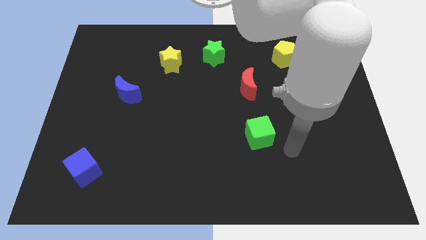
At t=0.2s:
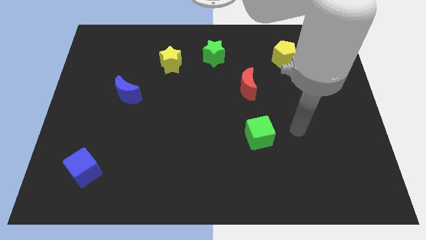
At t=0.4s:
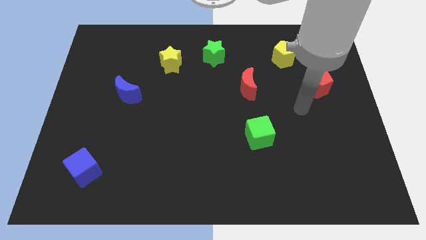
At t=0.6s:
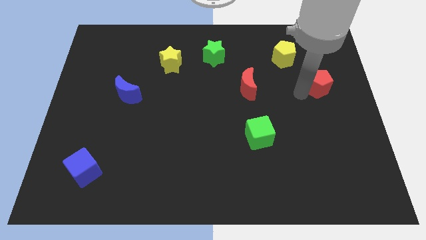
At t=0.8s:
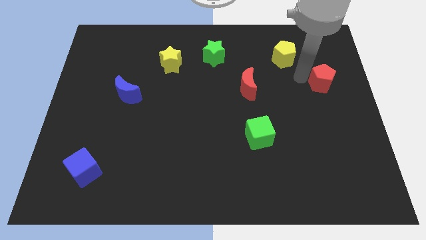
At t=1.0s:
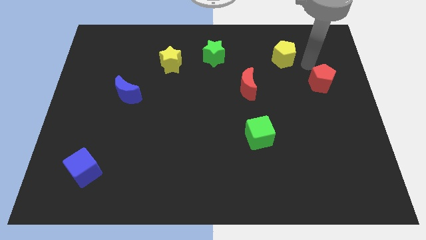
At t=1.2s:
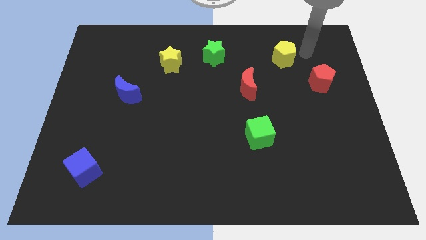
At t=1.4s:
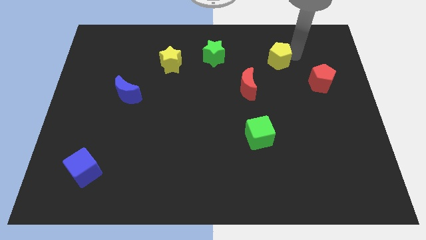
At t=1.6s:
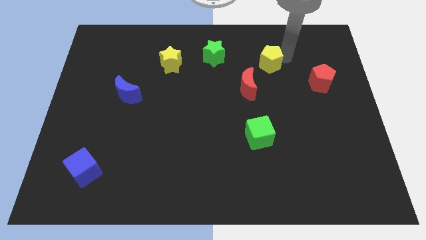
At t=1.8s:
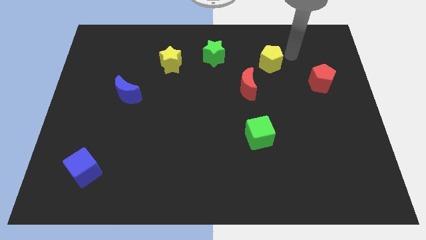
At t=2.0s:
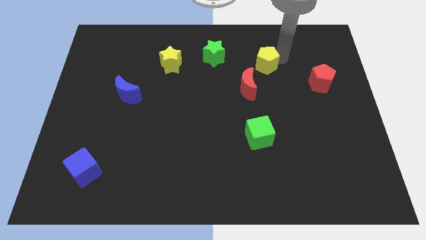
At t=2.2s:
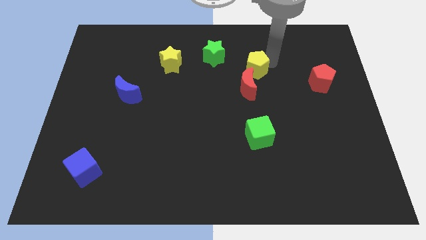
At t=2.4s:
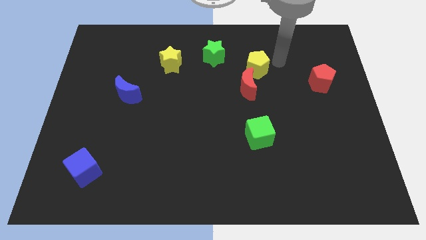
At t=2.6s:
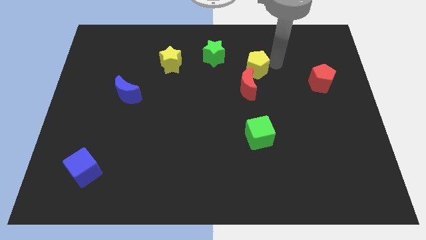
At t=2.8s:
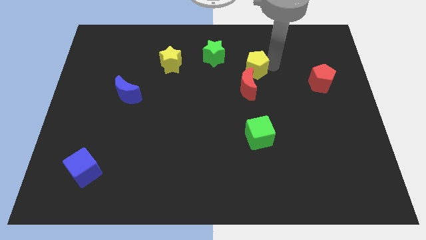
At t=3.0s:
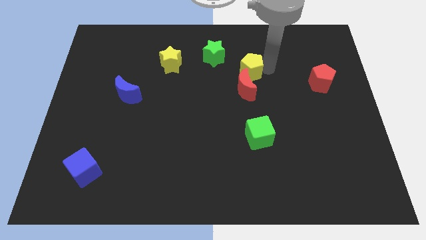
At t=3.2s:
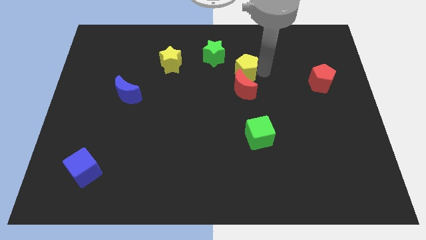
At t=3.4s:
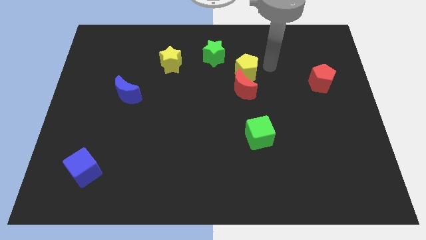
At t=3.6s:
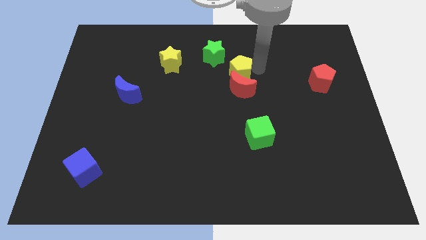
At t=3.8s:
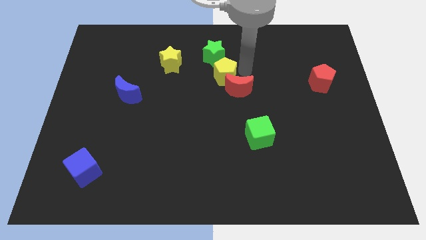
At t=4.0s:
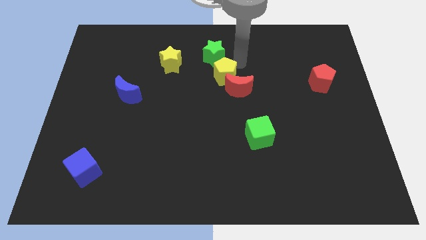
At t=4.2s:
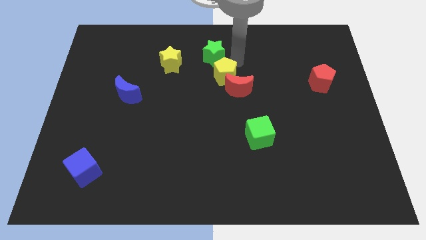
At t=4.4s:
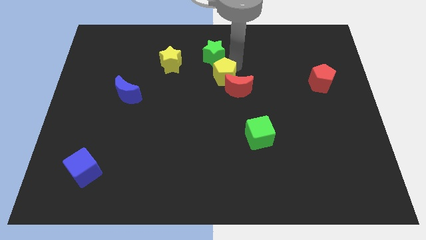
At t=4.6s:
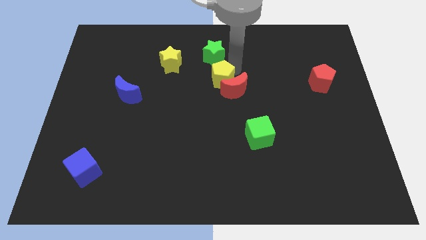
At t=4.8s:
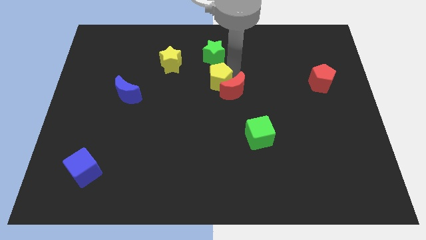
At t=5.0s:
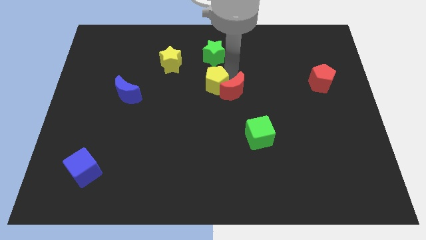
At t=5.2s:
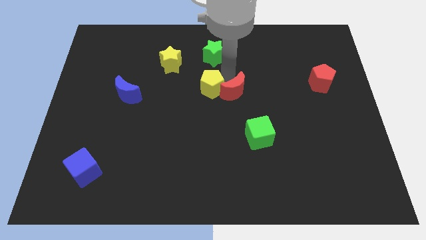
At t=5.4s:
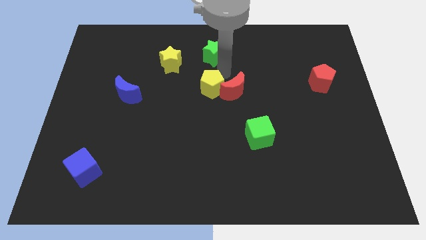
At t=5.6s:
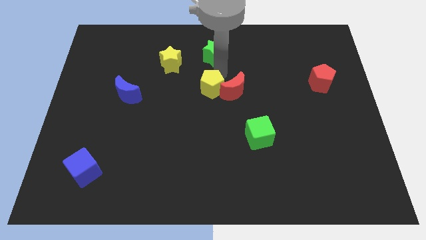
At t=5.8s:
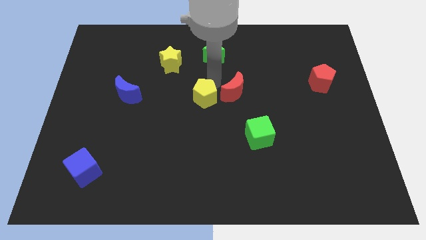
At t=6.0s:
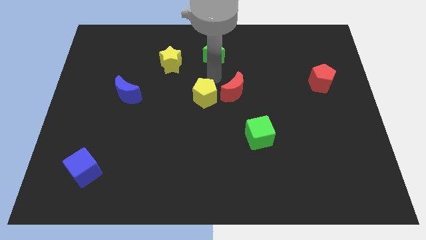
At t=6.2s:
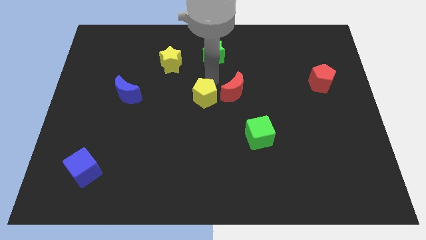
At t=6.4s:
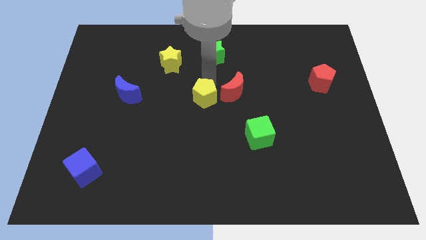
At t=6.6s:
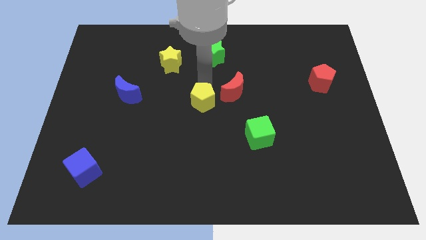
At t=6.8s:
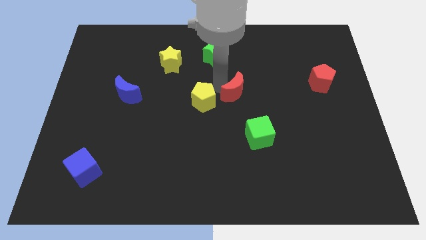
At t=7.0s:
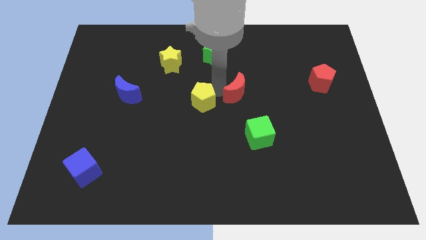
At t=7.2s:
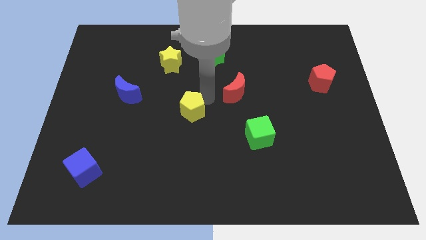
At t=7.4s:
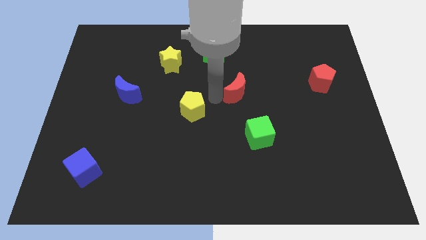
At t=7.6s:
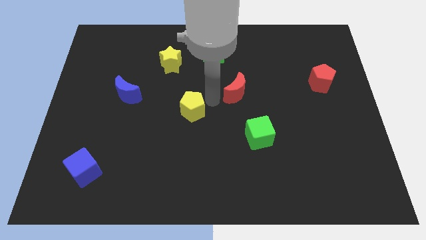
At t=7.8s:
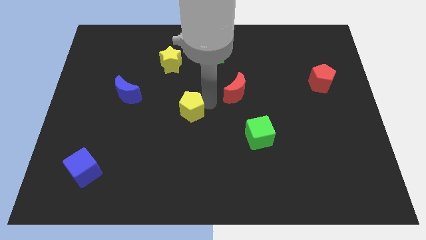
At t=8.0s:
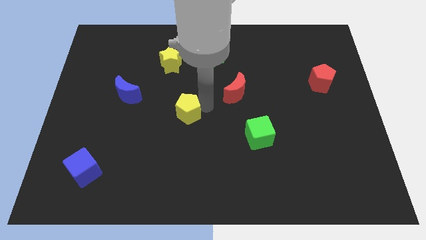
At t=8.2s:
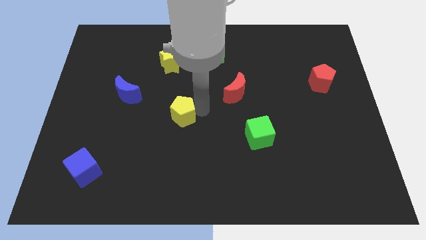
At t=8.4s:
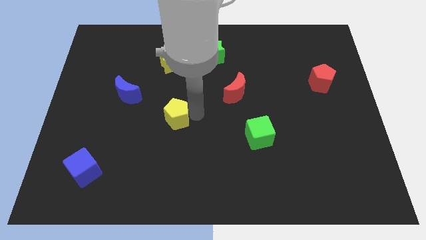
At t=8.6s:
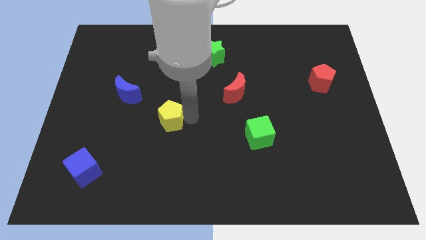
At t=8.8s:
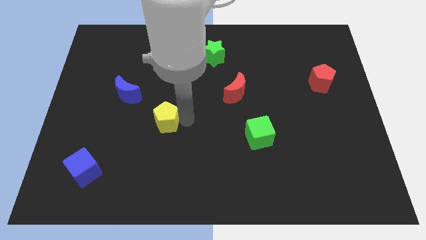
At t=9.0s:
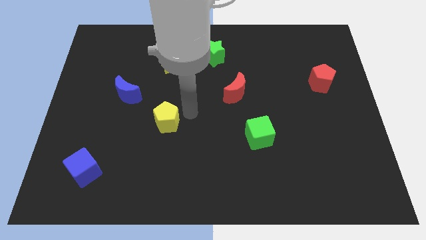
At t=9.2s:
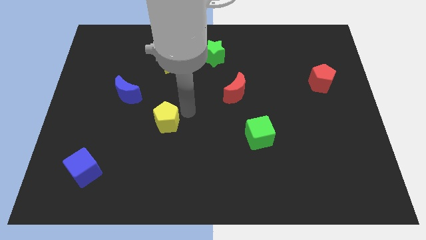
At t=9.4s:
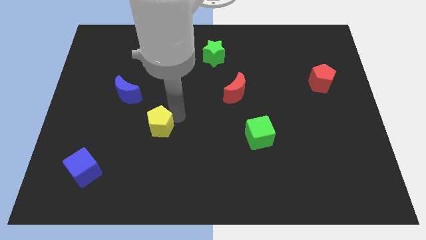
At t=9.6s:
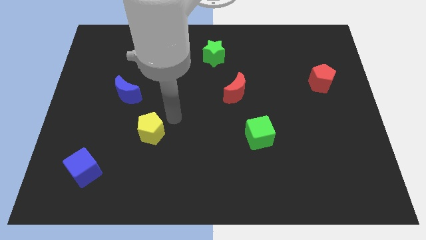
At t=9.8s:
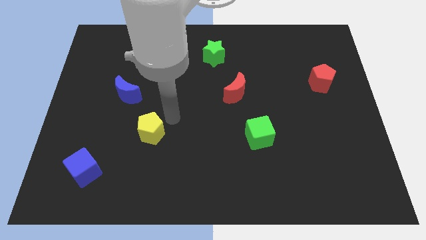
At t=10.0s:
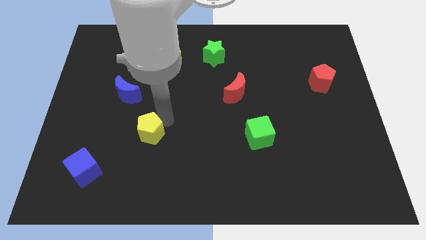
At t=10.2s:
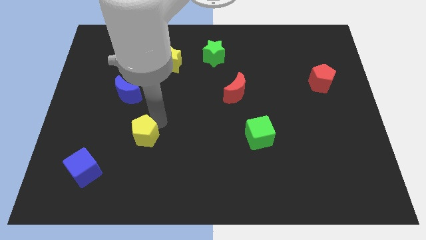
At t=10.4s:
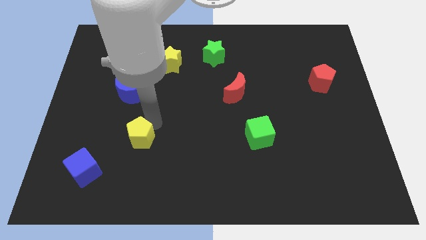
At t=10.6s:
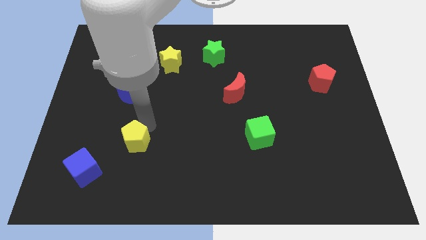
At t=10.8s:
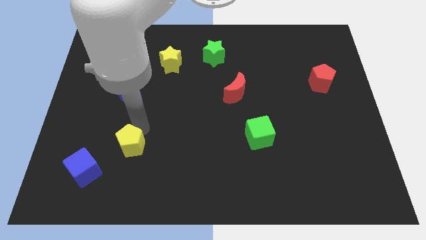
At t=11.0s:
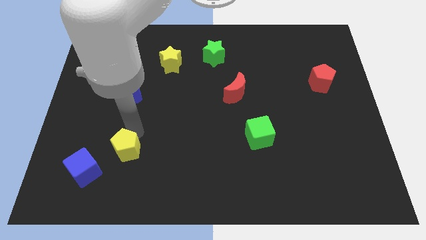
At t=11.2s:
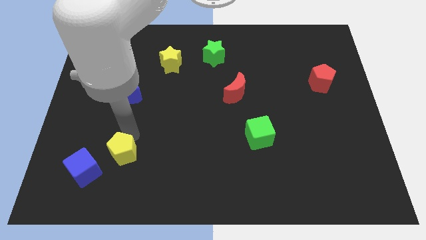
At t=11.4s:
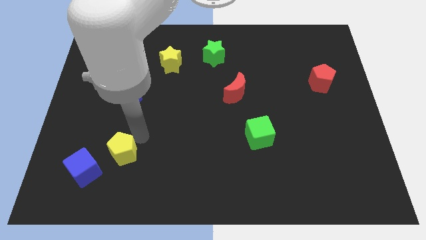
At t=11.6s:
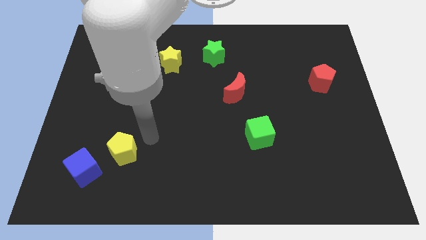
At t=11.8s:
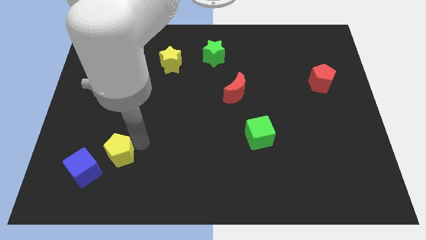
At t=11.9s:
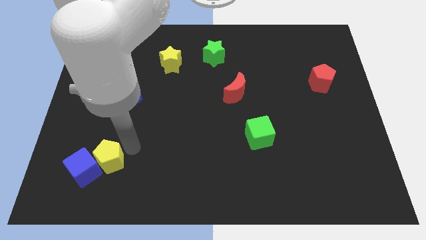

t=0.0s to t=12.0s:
put the yellow pentagon close to the blue cube

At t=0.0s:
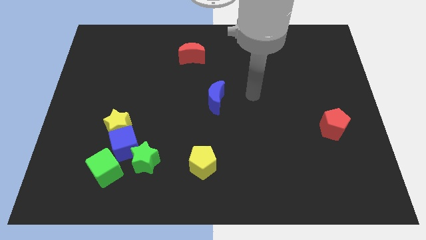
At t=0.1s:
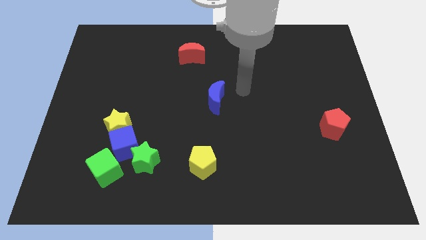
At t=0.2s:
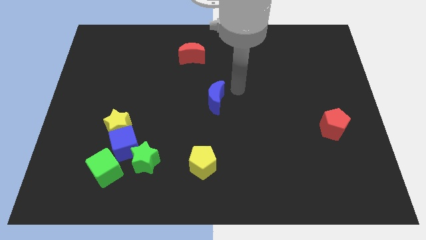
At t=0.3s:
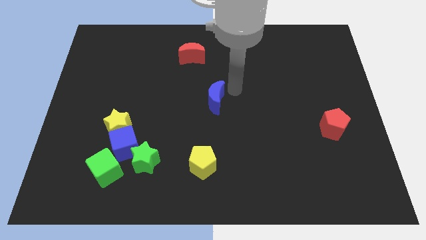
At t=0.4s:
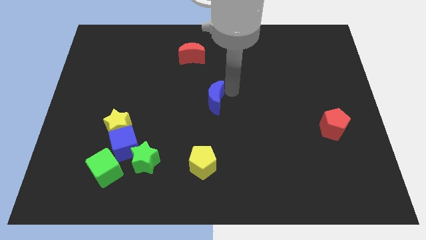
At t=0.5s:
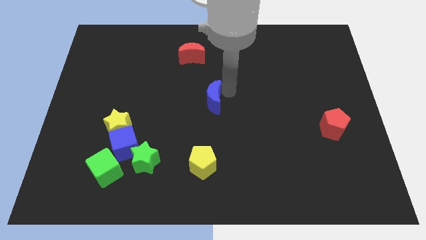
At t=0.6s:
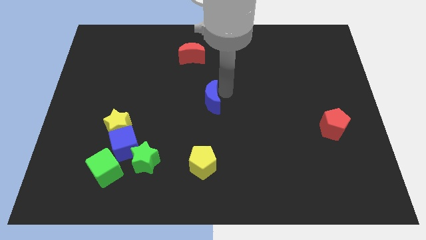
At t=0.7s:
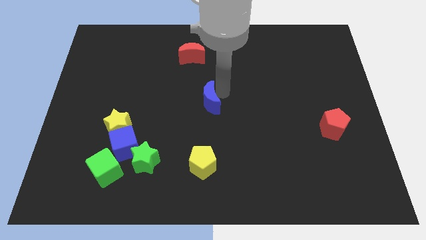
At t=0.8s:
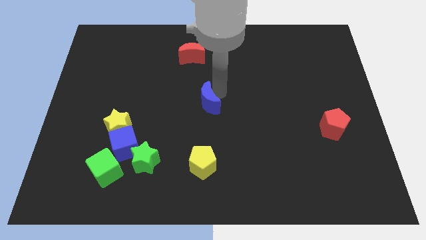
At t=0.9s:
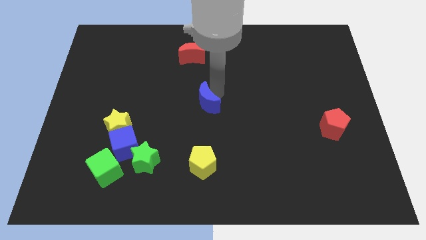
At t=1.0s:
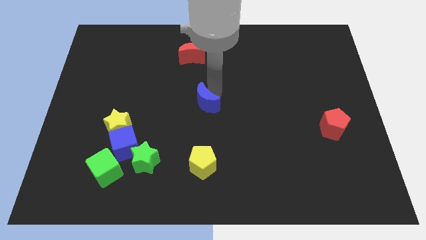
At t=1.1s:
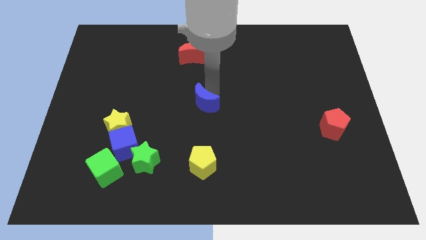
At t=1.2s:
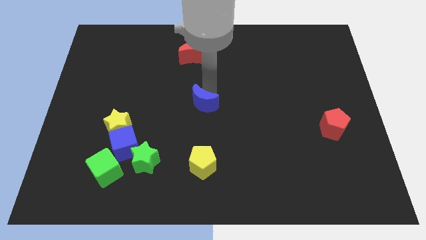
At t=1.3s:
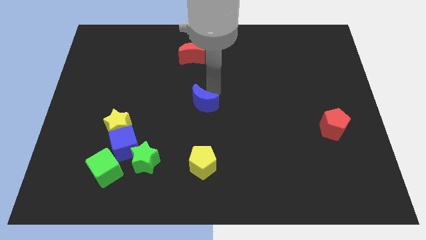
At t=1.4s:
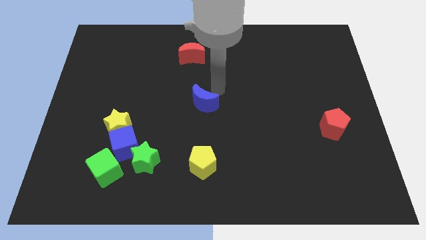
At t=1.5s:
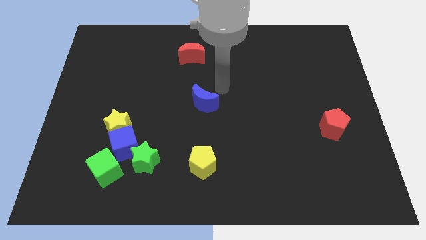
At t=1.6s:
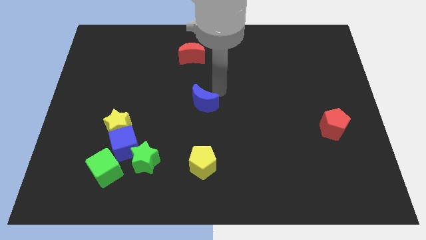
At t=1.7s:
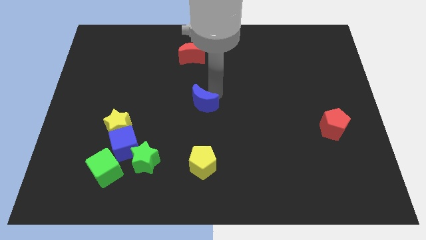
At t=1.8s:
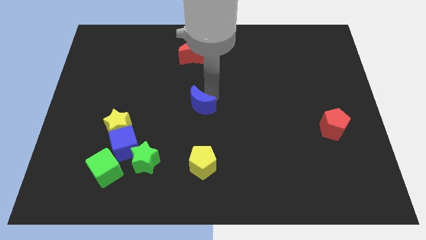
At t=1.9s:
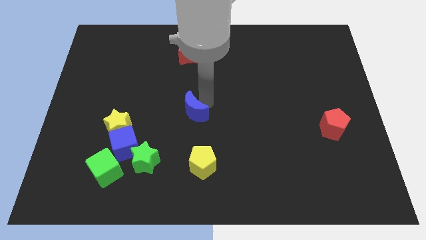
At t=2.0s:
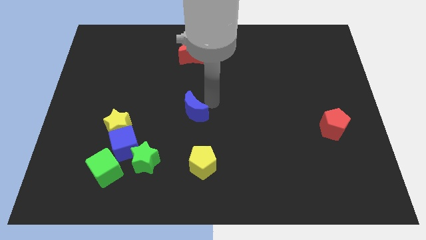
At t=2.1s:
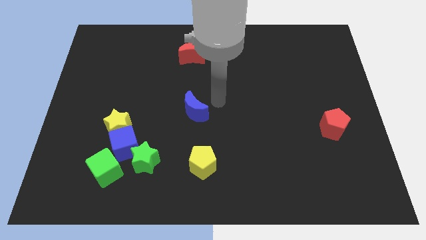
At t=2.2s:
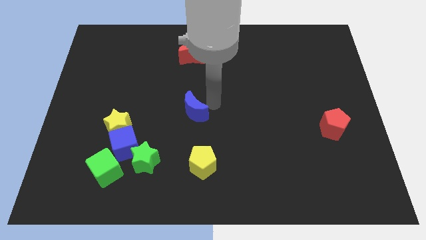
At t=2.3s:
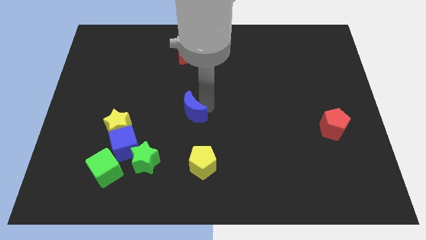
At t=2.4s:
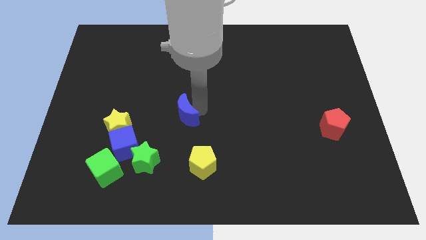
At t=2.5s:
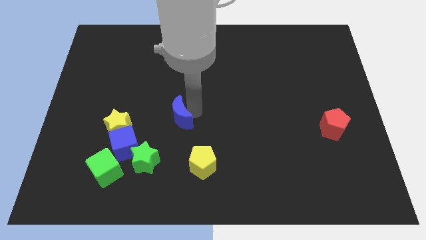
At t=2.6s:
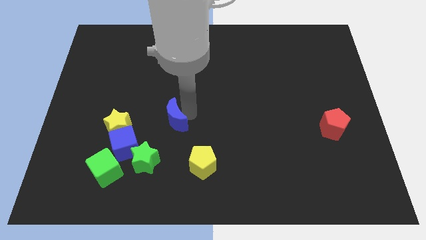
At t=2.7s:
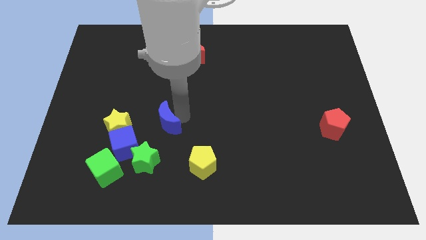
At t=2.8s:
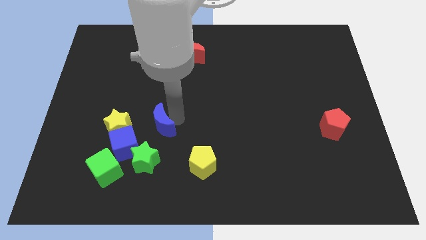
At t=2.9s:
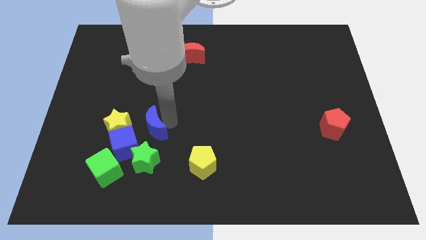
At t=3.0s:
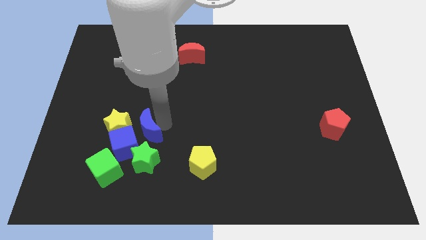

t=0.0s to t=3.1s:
put the blue moon next to the blue cube
